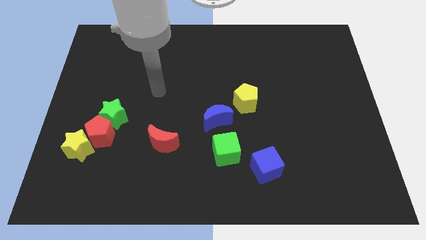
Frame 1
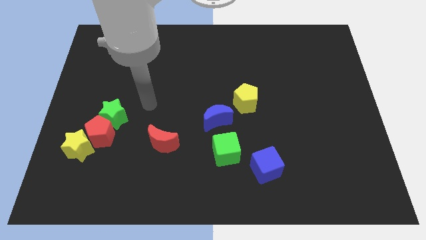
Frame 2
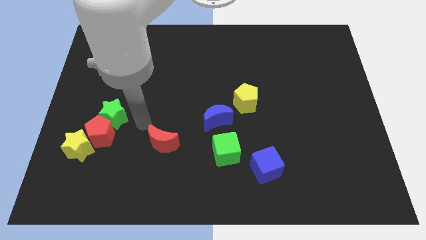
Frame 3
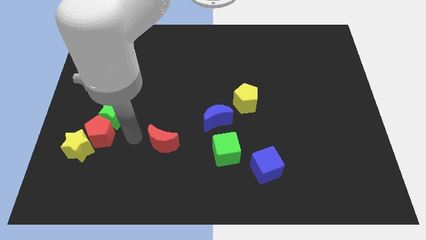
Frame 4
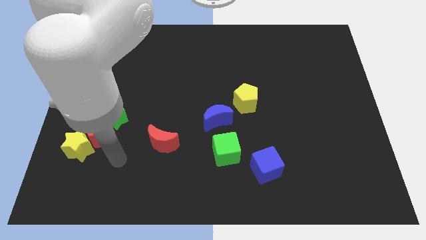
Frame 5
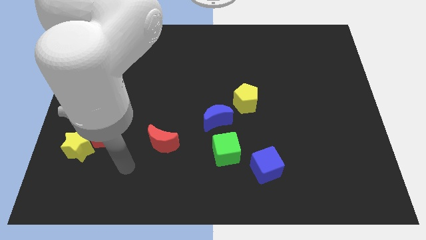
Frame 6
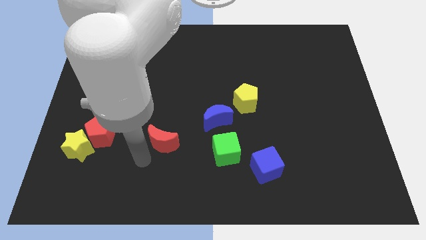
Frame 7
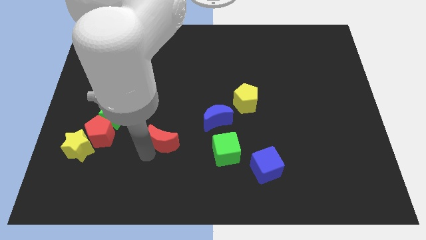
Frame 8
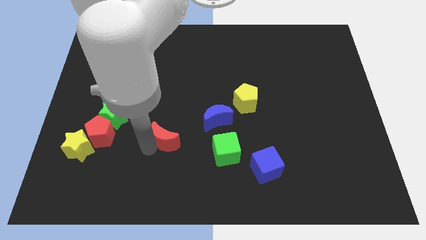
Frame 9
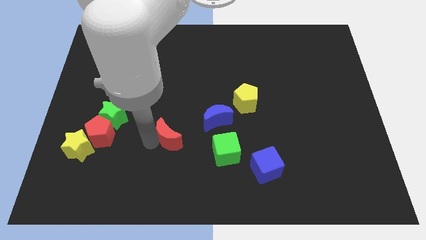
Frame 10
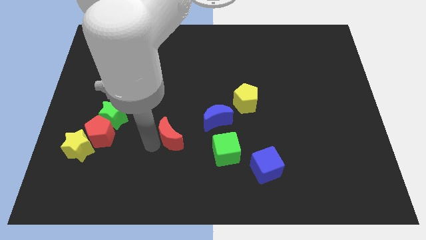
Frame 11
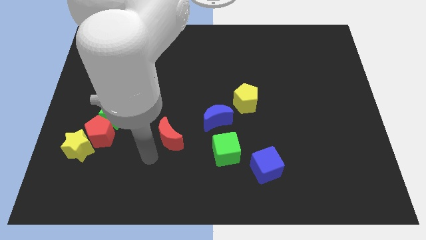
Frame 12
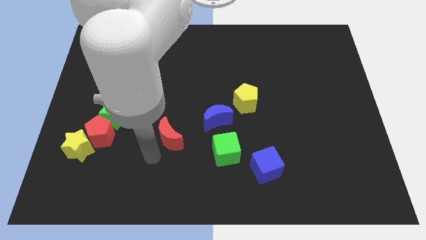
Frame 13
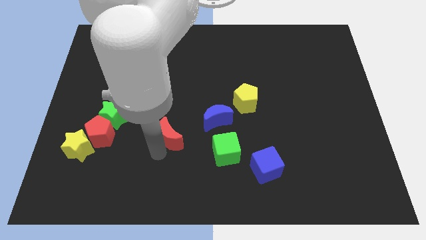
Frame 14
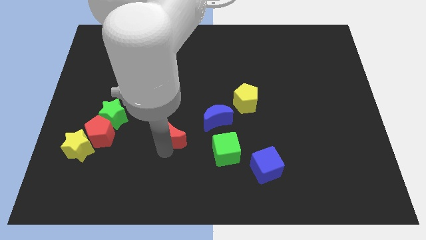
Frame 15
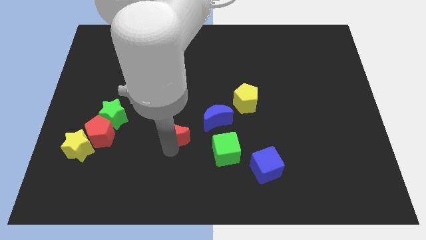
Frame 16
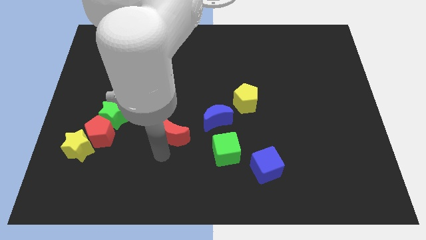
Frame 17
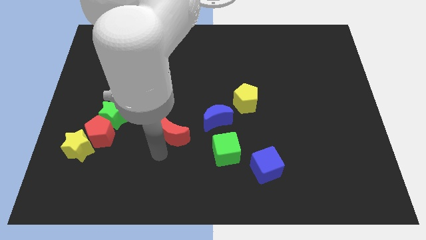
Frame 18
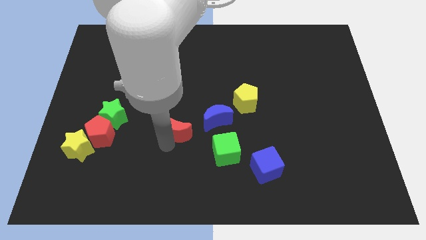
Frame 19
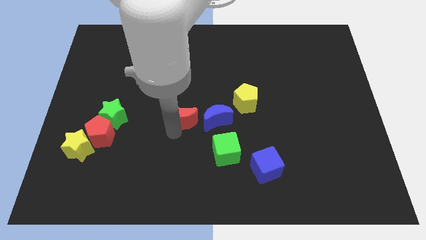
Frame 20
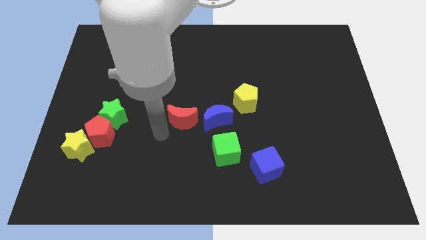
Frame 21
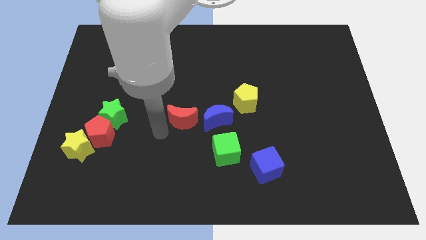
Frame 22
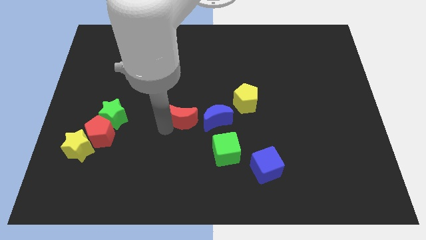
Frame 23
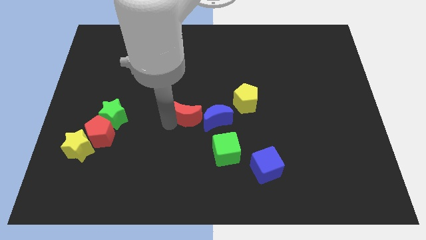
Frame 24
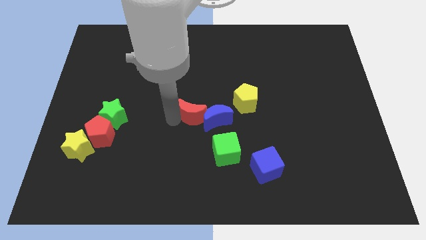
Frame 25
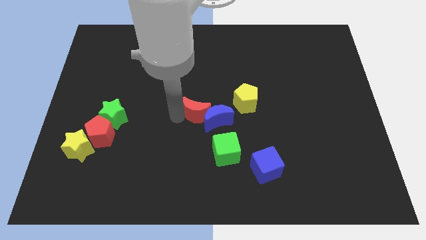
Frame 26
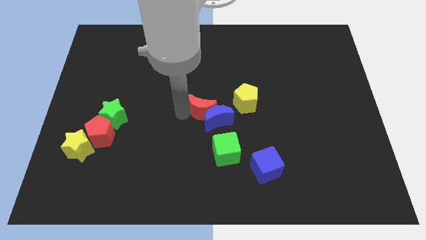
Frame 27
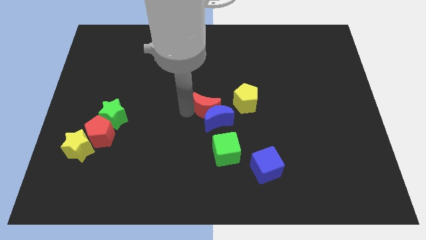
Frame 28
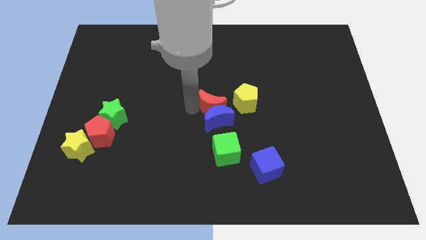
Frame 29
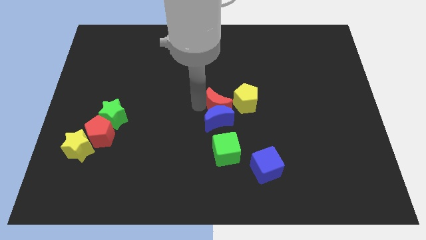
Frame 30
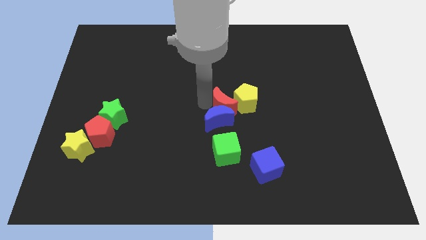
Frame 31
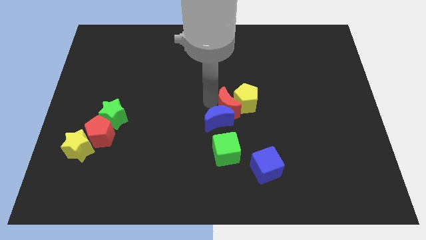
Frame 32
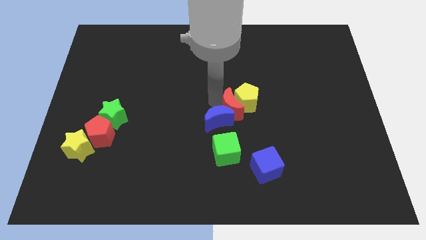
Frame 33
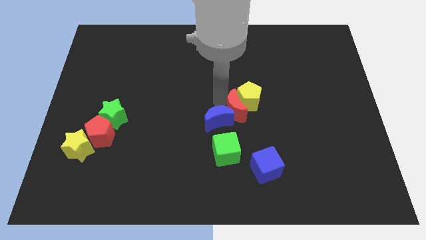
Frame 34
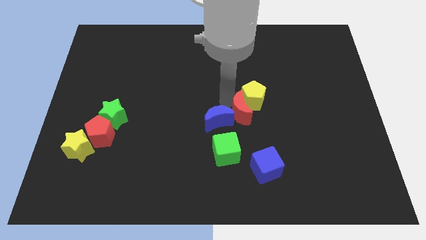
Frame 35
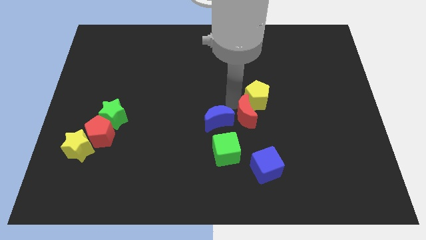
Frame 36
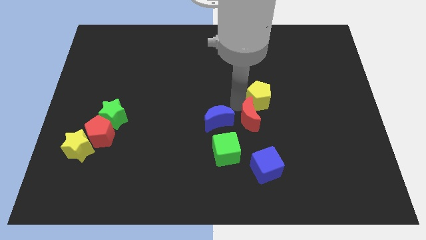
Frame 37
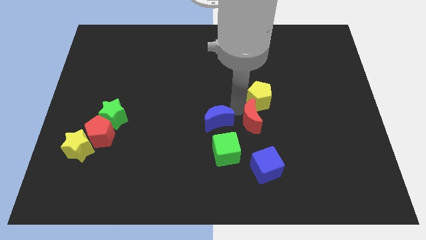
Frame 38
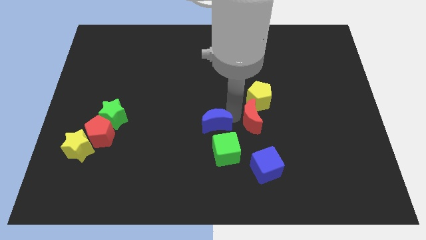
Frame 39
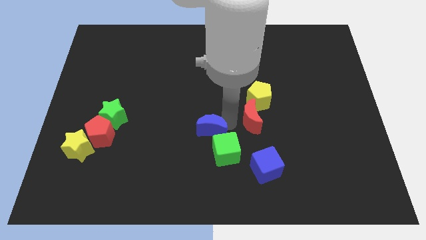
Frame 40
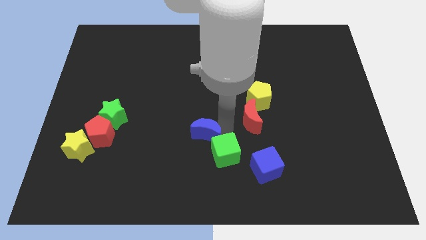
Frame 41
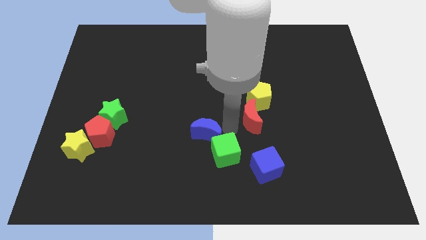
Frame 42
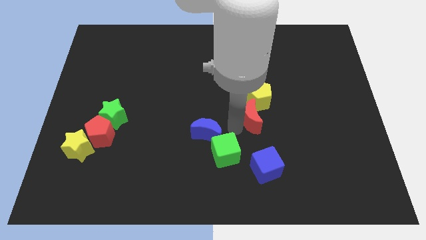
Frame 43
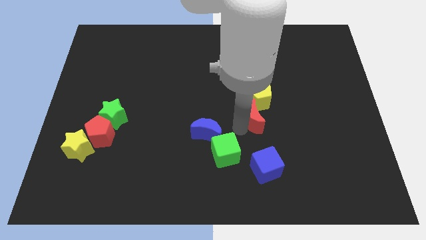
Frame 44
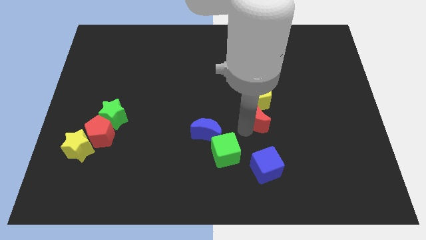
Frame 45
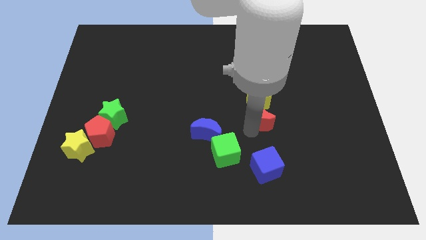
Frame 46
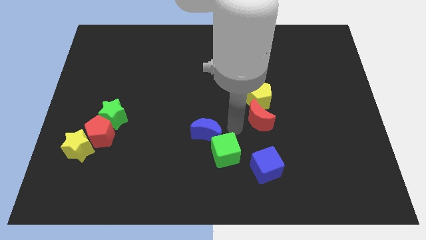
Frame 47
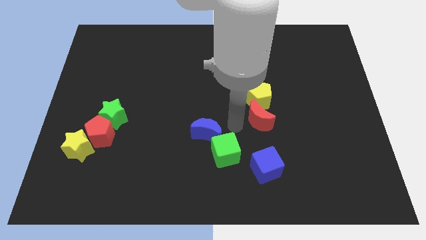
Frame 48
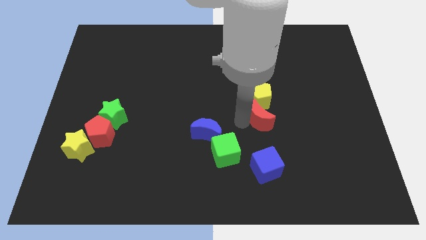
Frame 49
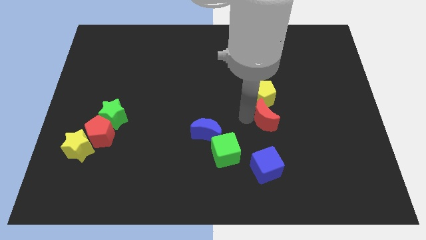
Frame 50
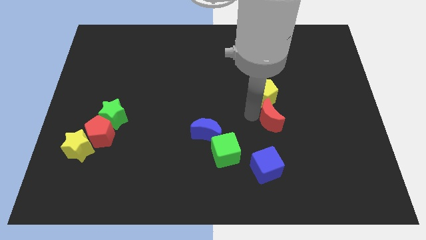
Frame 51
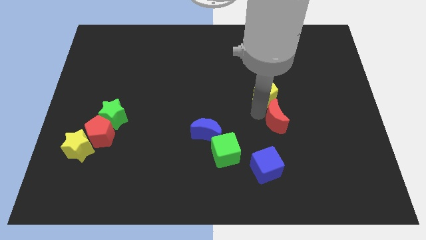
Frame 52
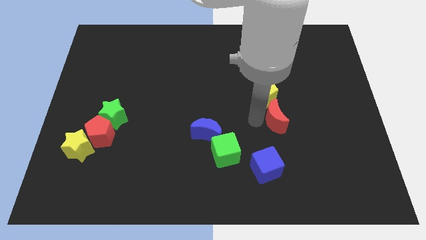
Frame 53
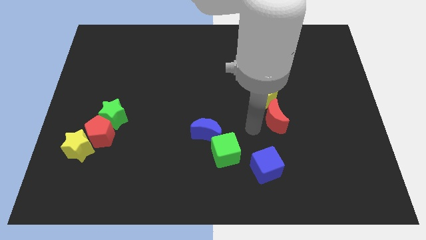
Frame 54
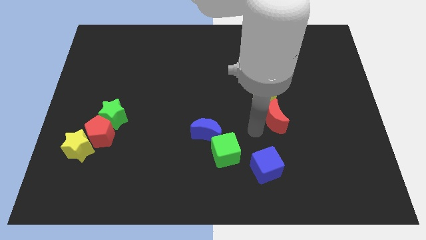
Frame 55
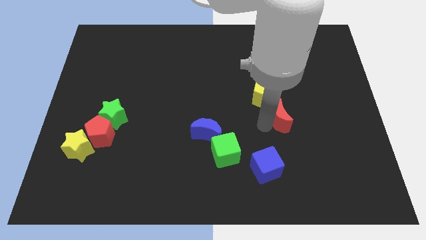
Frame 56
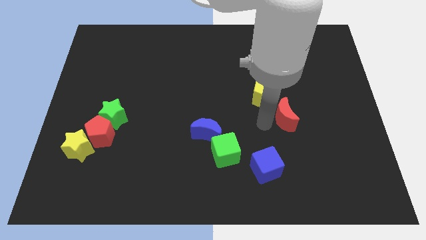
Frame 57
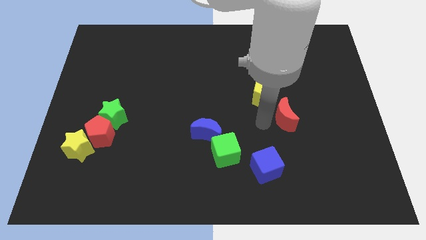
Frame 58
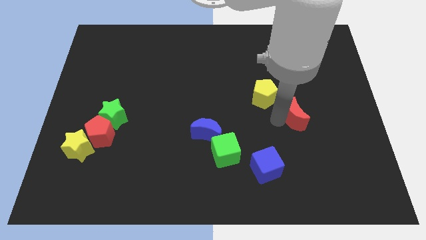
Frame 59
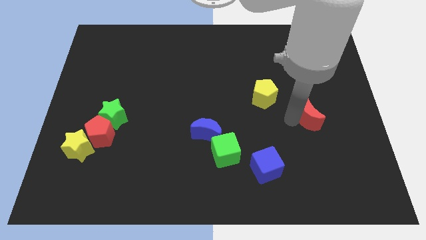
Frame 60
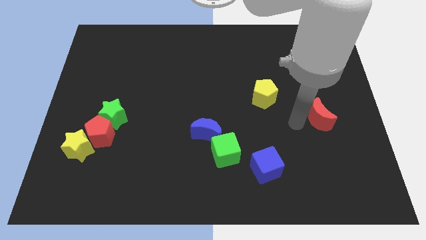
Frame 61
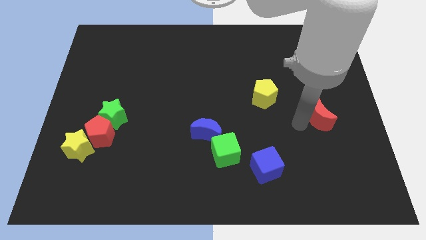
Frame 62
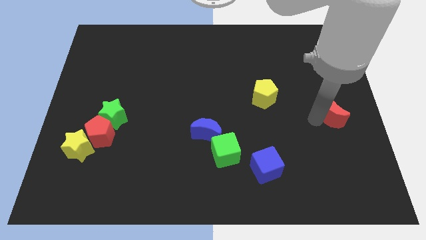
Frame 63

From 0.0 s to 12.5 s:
push the red moon to the right side of the board

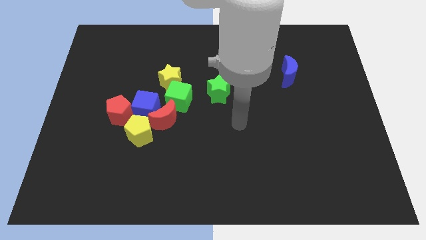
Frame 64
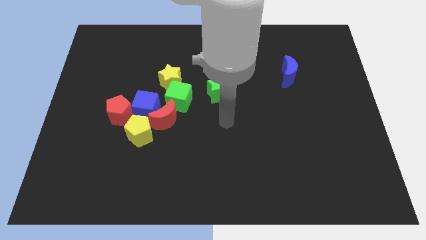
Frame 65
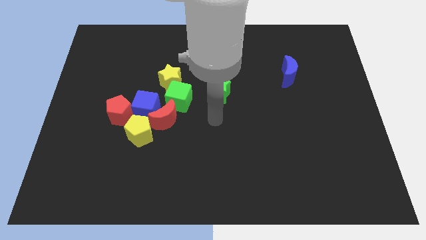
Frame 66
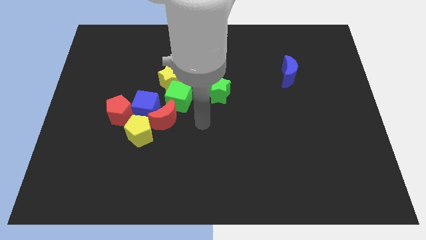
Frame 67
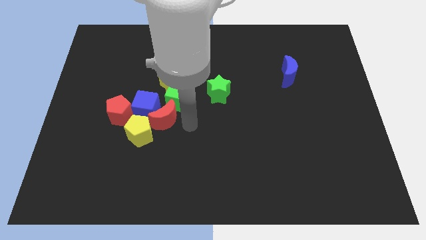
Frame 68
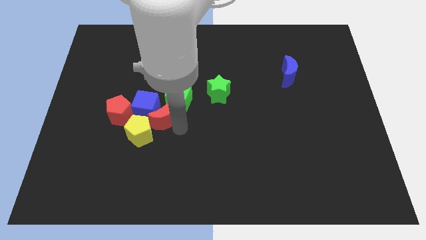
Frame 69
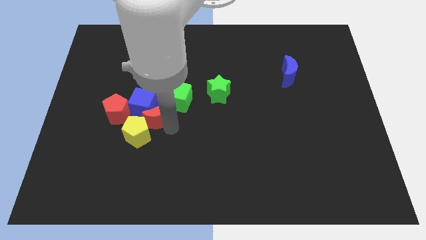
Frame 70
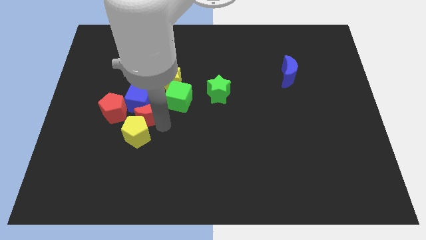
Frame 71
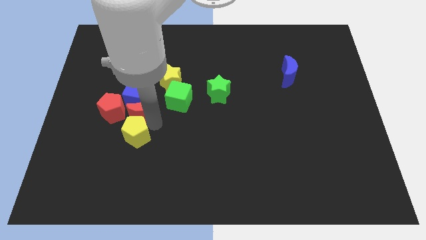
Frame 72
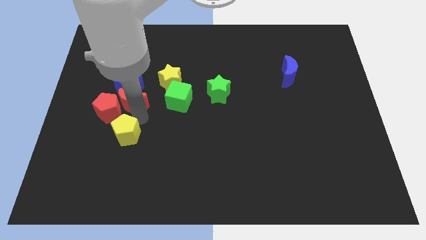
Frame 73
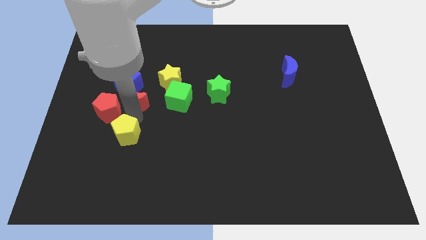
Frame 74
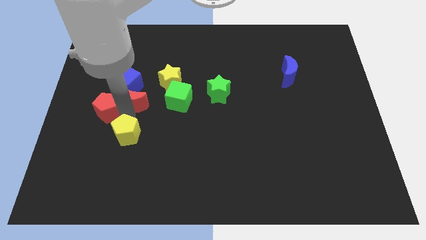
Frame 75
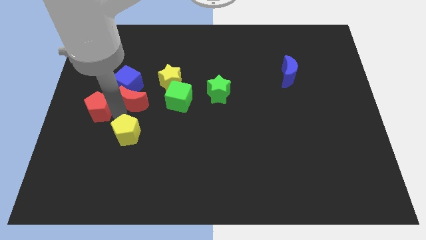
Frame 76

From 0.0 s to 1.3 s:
slide the red pentagon to the center left
